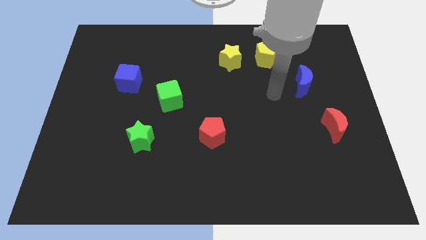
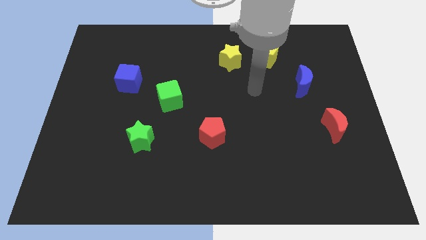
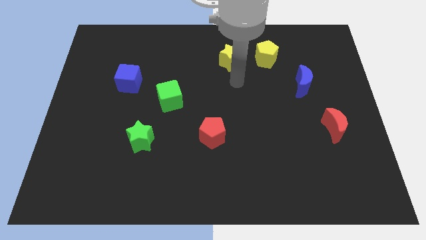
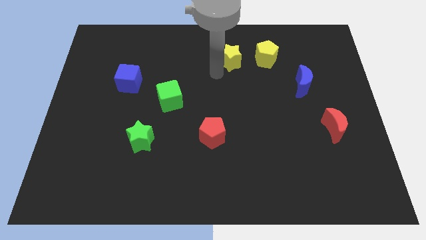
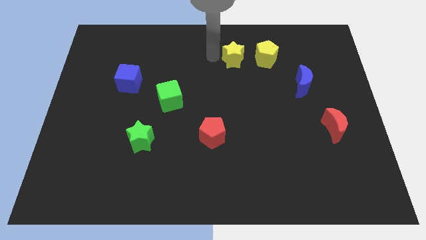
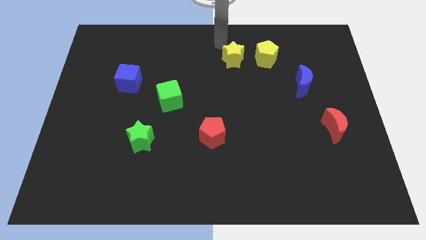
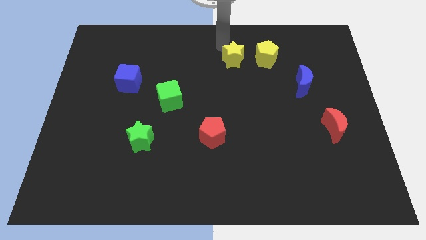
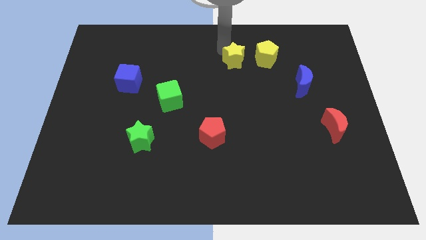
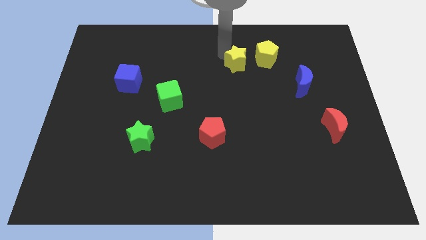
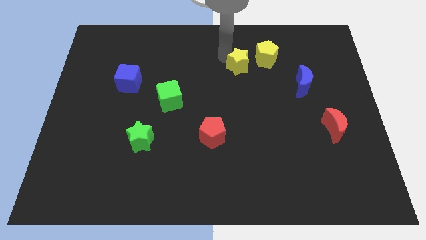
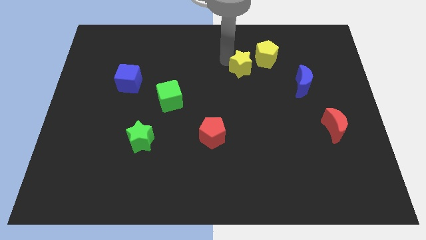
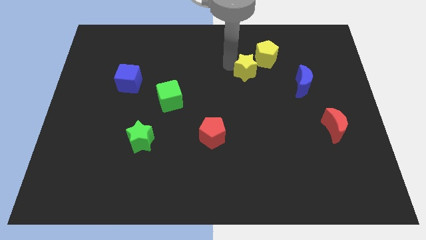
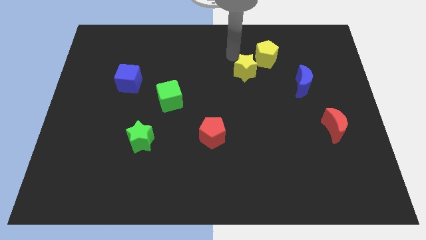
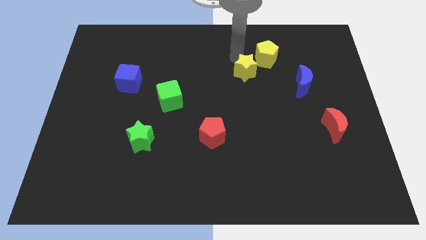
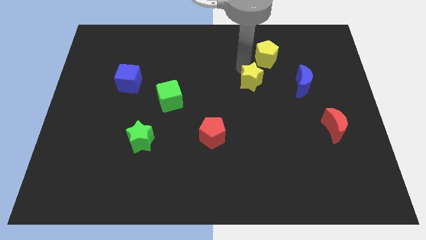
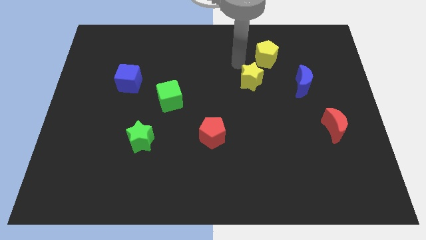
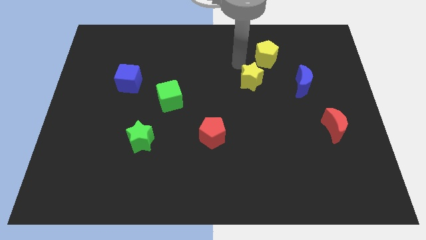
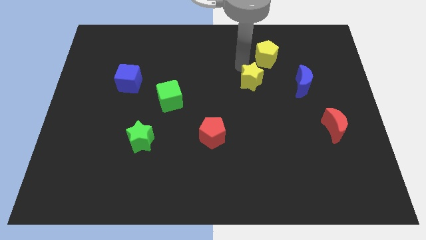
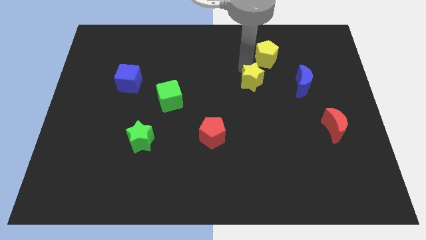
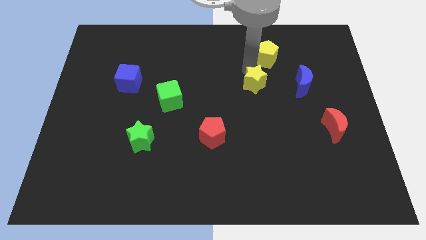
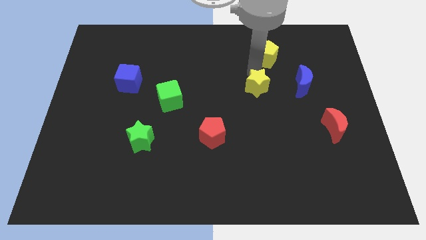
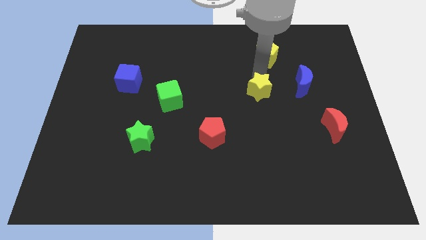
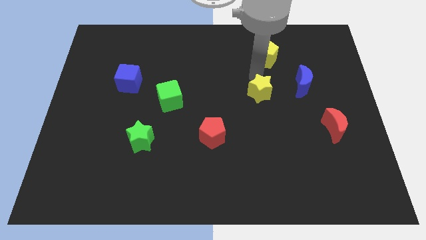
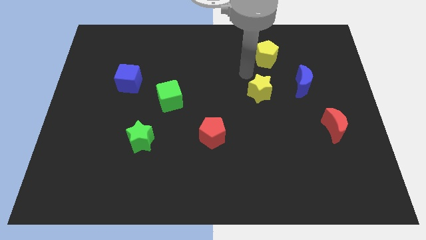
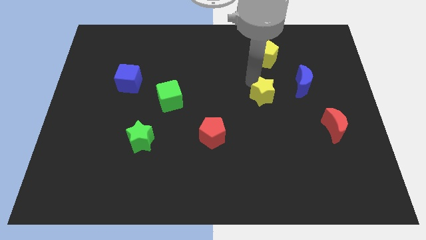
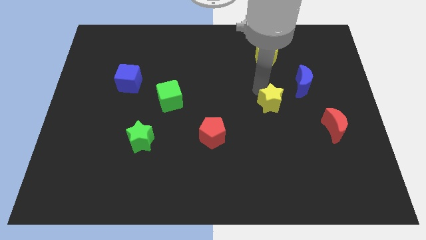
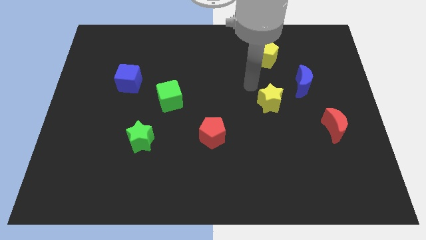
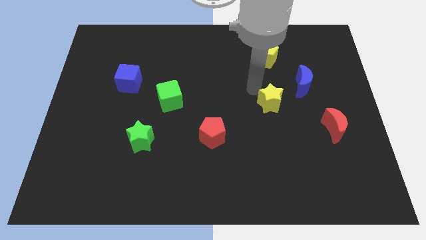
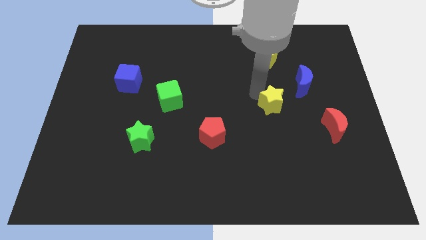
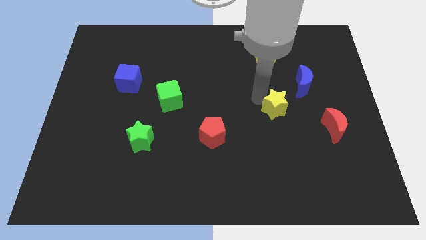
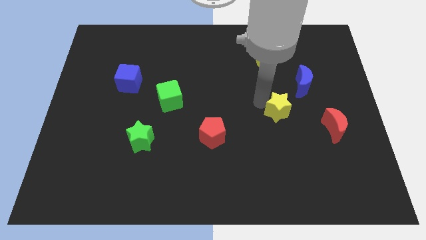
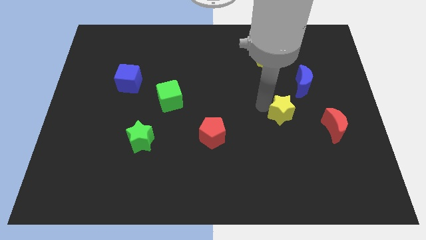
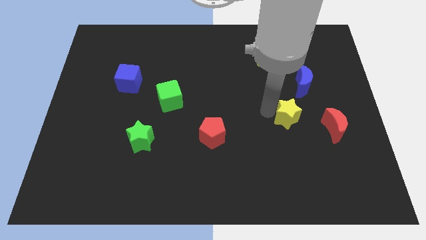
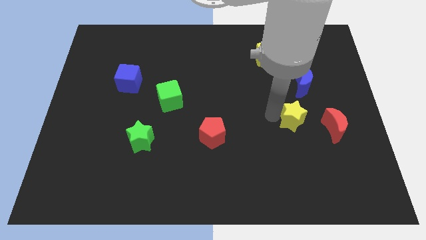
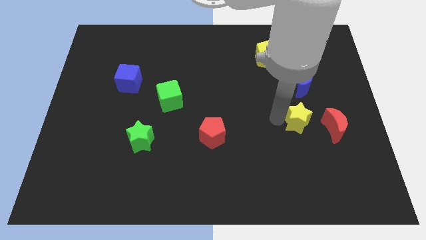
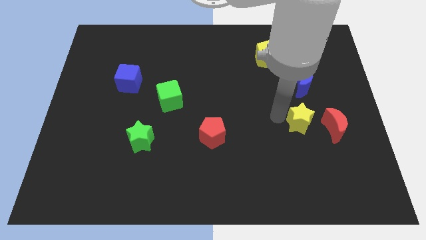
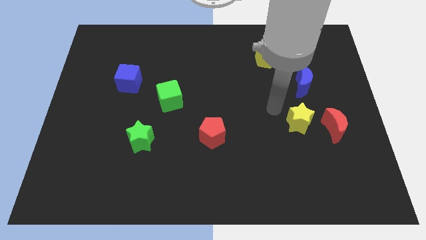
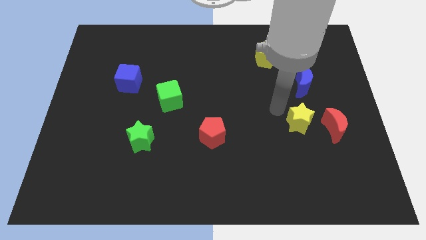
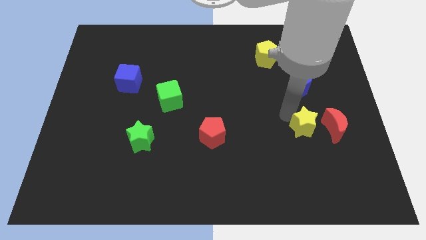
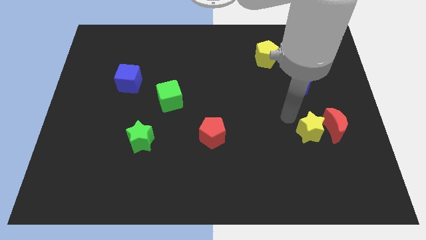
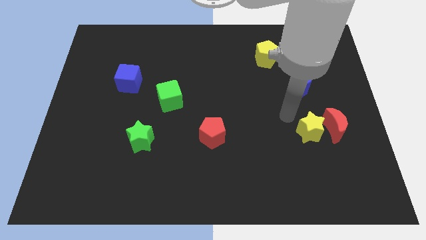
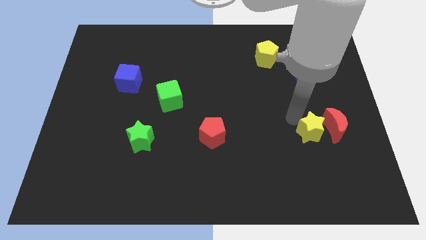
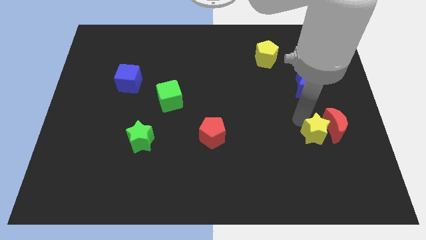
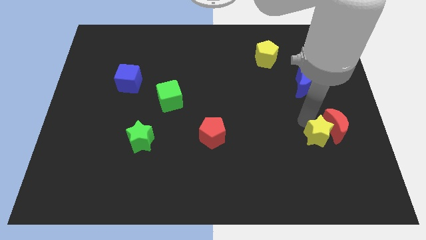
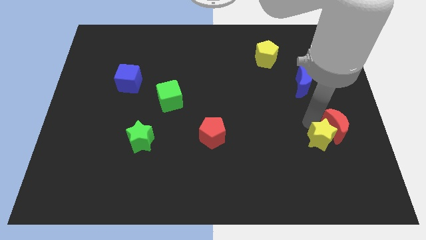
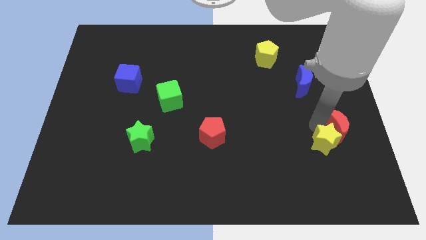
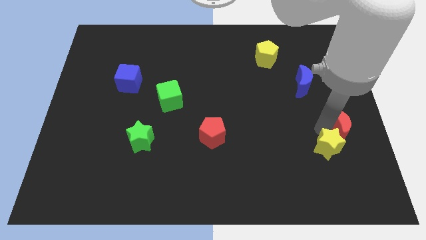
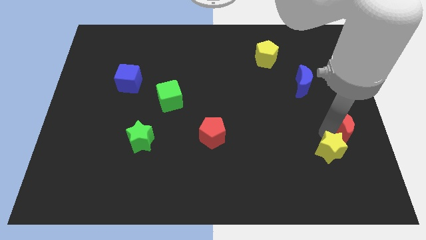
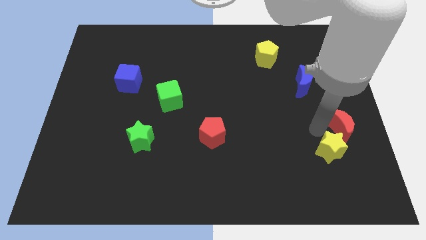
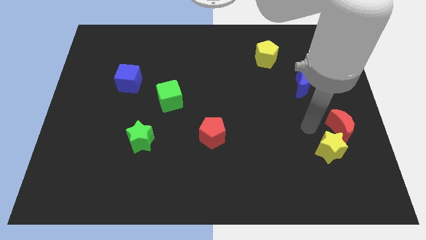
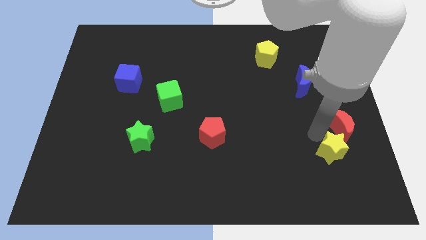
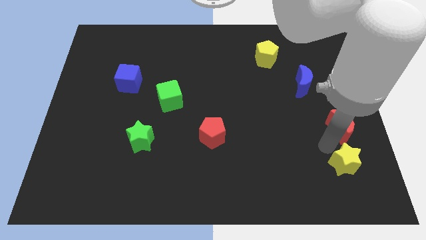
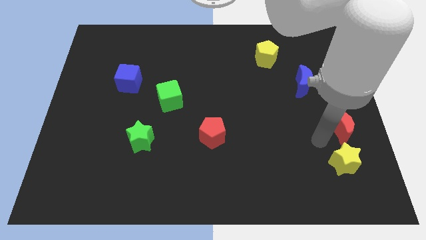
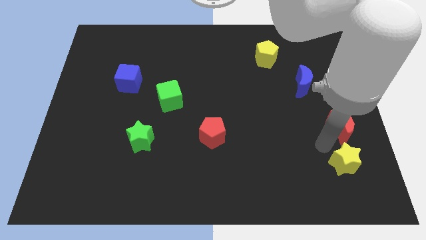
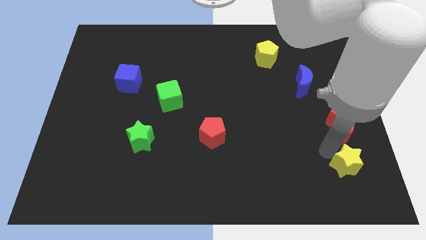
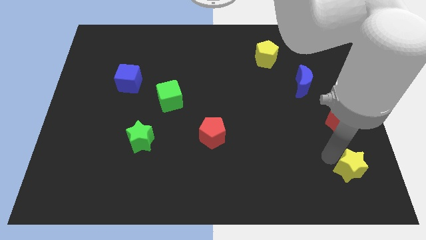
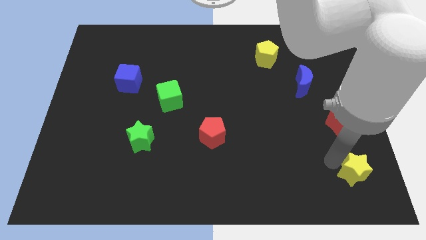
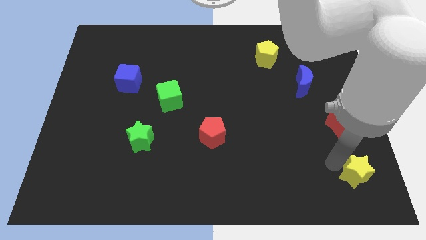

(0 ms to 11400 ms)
put the yellow star to the lower right corner

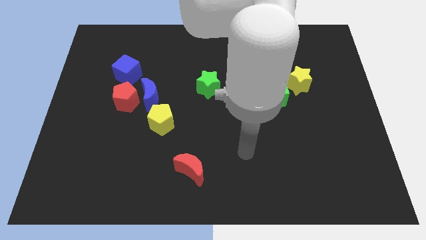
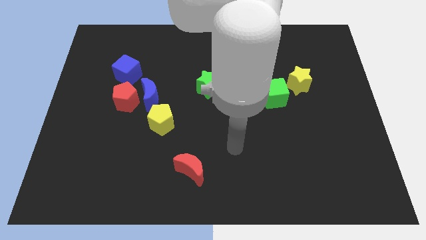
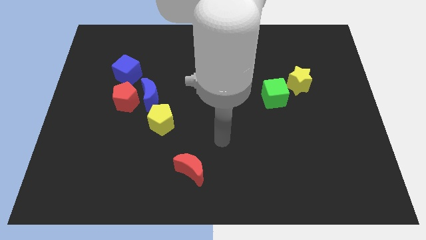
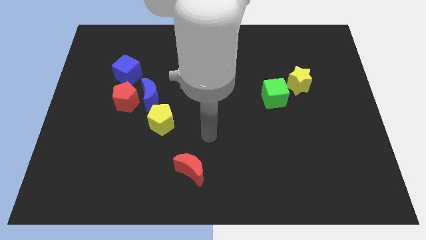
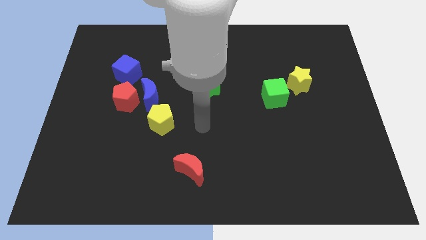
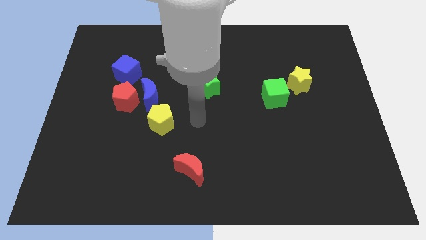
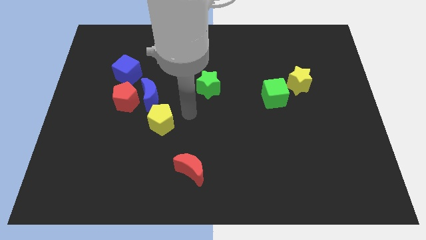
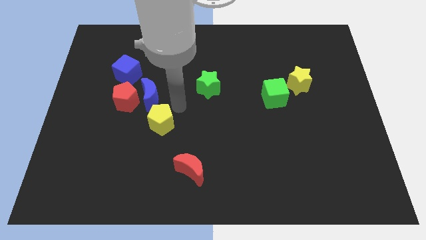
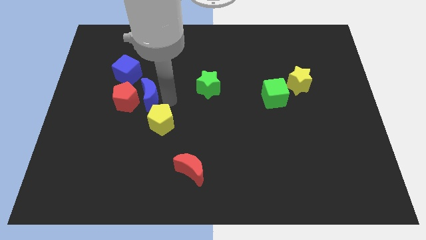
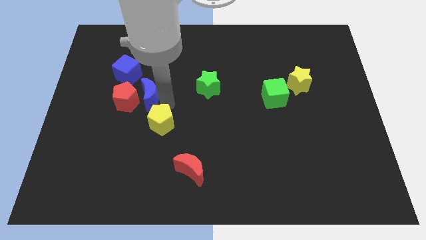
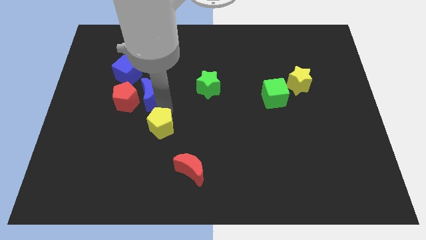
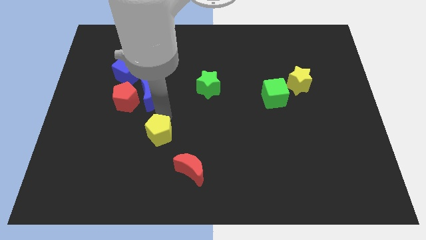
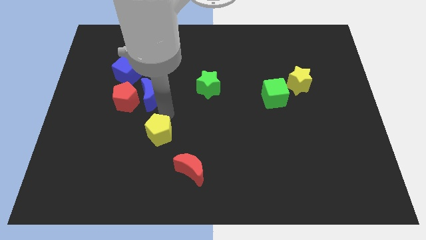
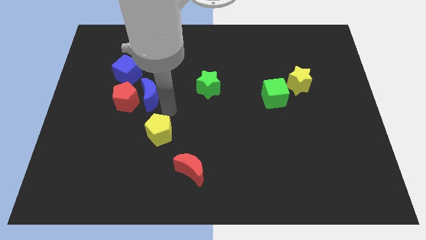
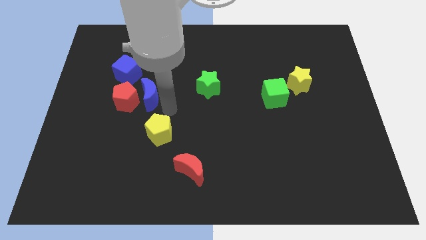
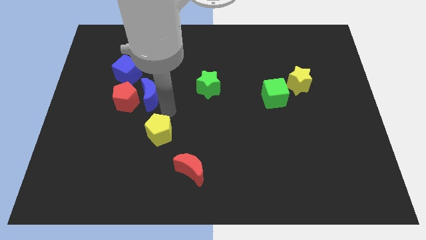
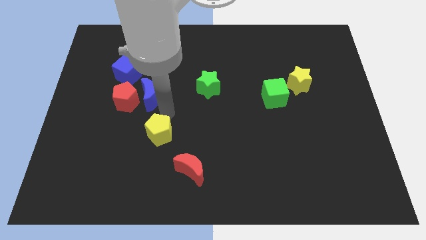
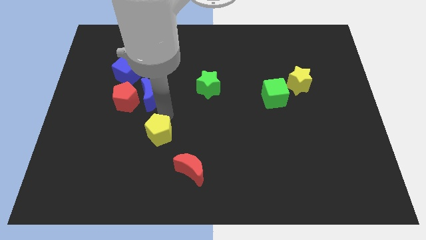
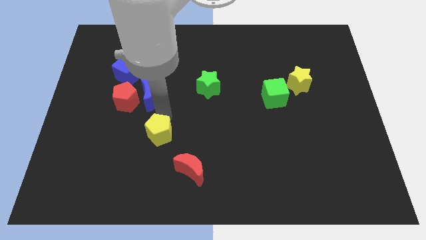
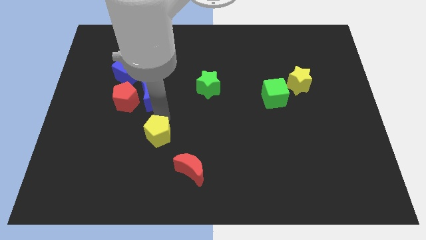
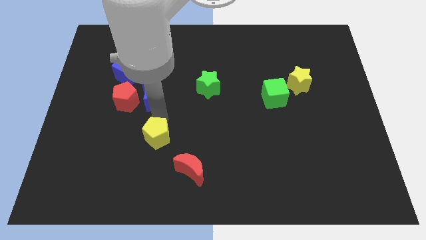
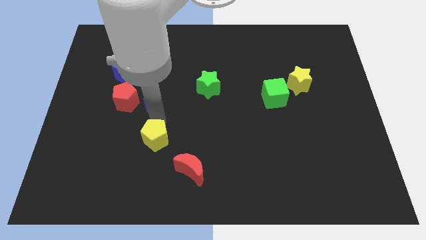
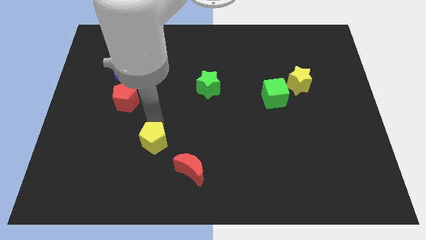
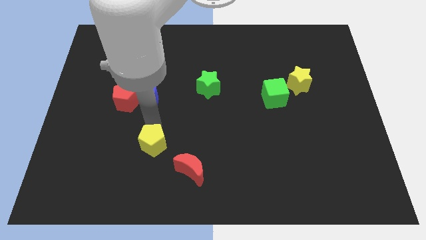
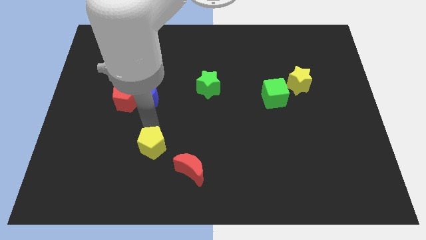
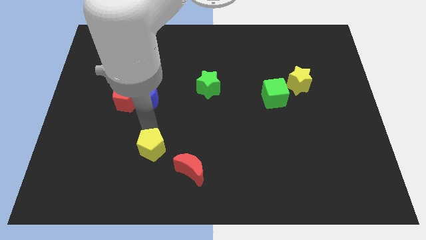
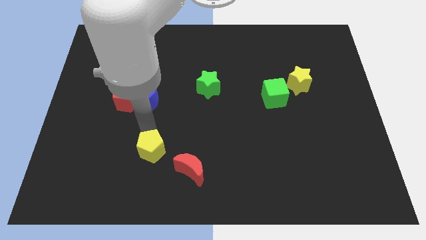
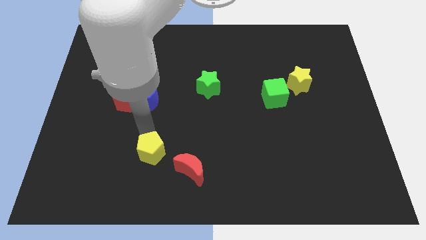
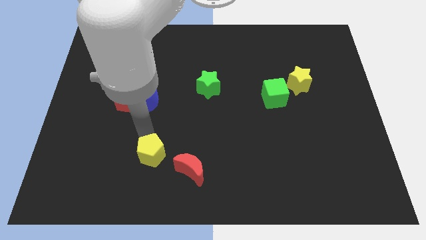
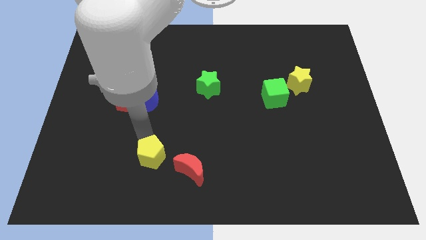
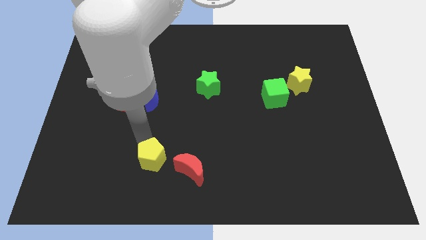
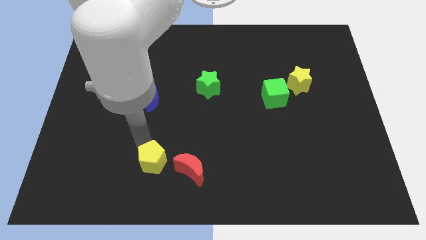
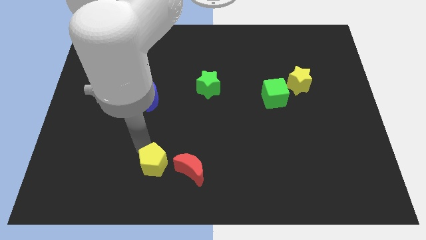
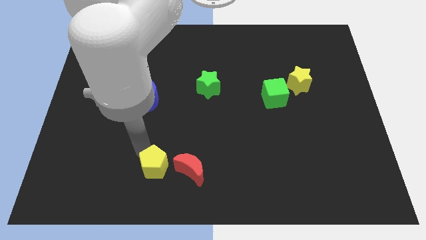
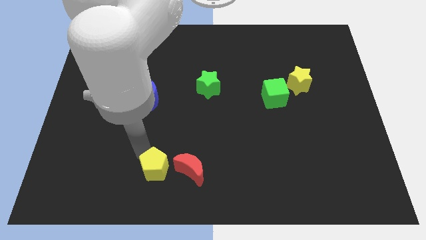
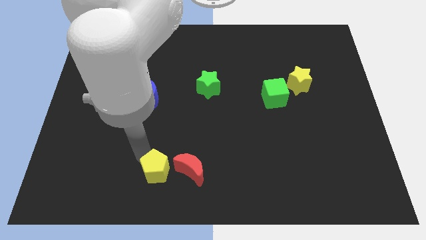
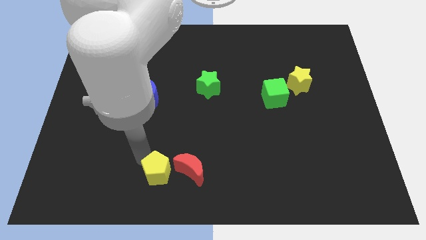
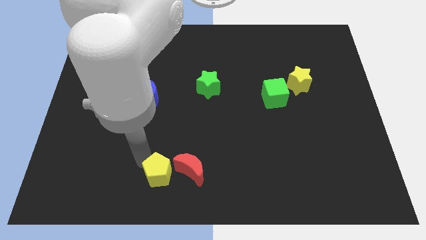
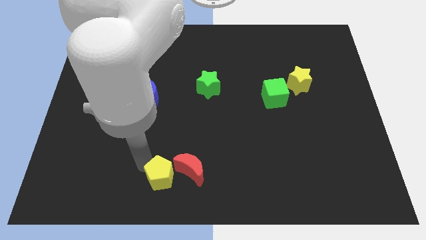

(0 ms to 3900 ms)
move the yellow pentagon to the bottom side
